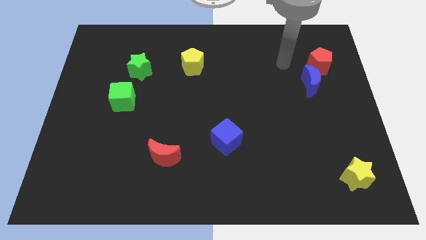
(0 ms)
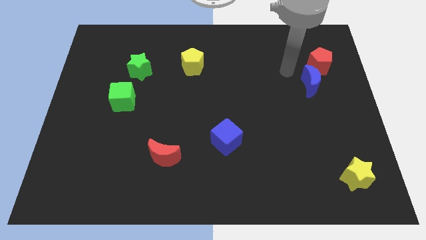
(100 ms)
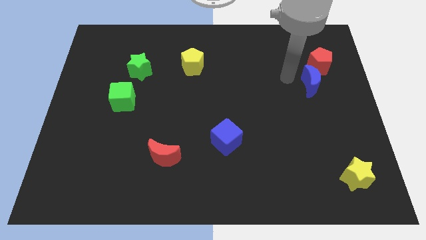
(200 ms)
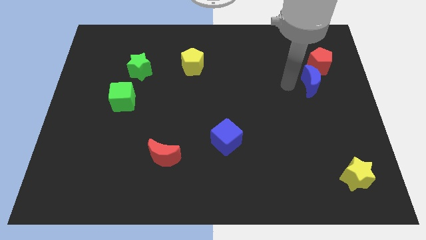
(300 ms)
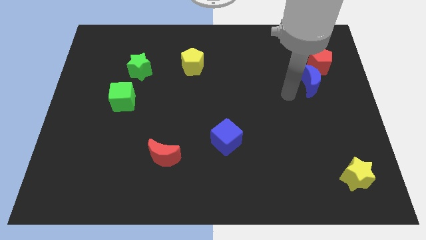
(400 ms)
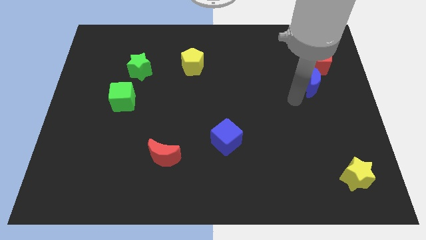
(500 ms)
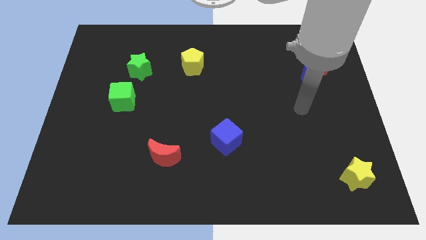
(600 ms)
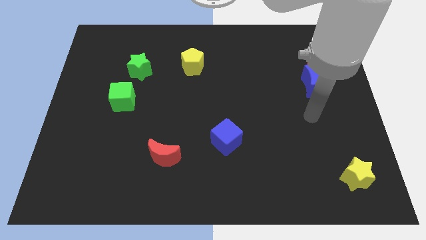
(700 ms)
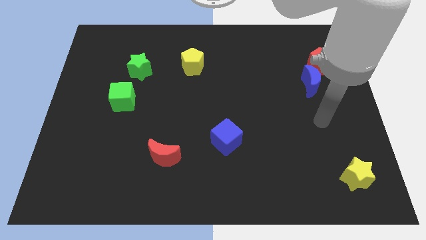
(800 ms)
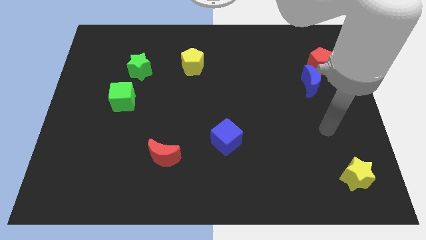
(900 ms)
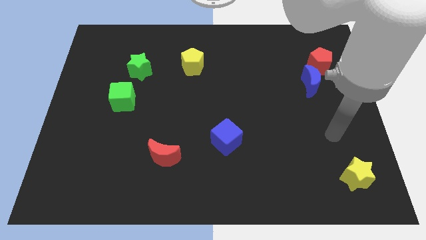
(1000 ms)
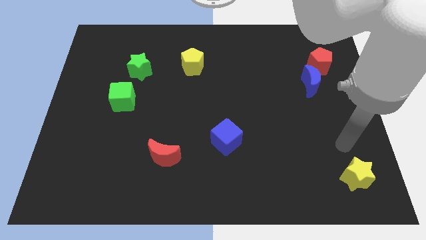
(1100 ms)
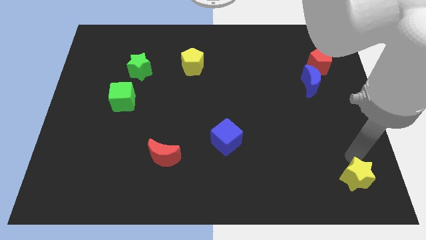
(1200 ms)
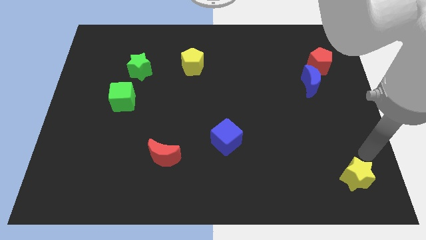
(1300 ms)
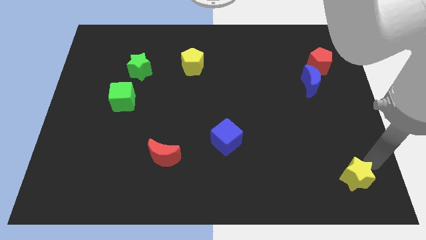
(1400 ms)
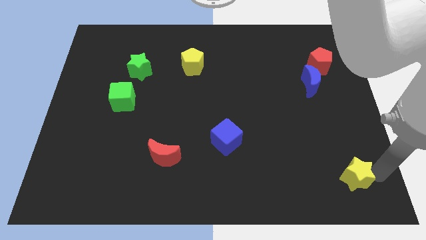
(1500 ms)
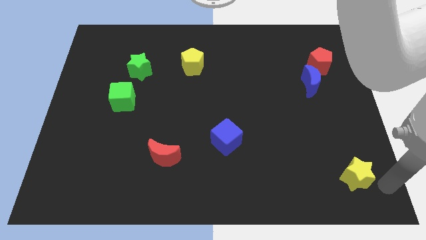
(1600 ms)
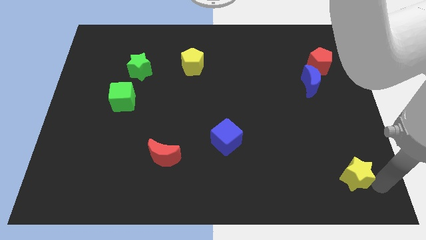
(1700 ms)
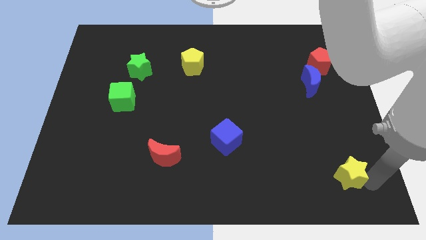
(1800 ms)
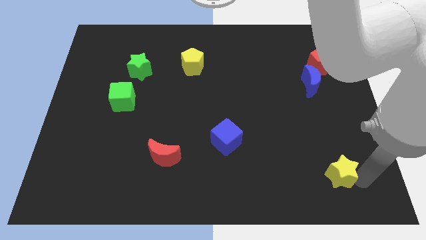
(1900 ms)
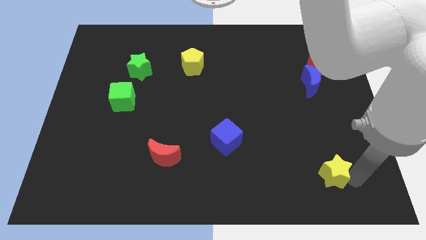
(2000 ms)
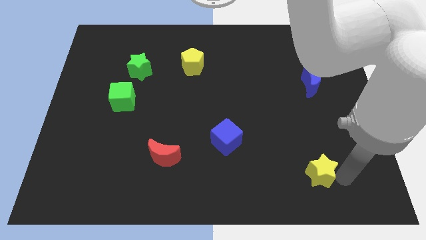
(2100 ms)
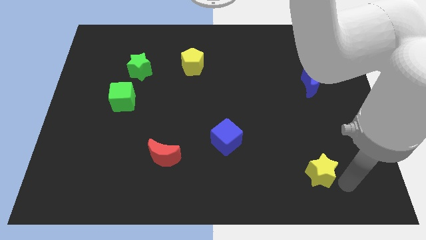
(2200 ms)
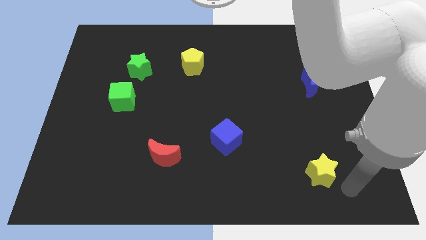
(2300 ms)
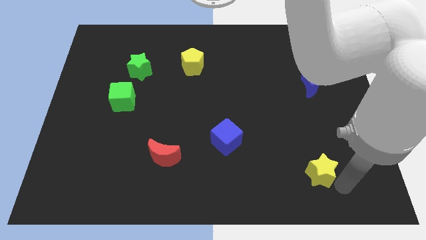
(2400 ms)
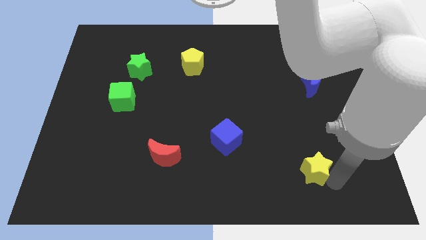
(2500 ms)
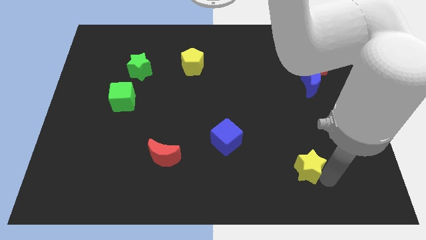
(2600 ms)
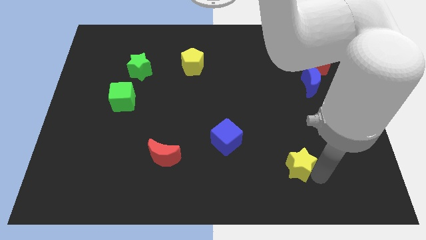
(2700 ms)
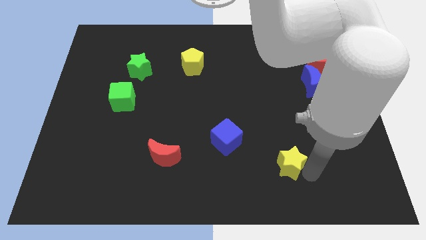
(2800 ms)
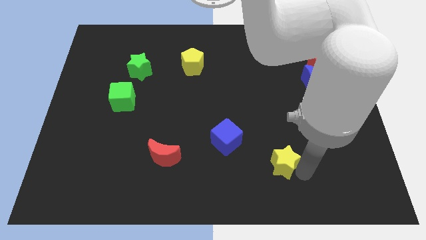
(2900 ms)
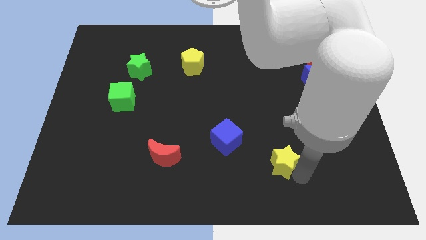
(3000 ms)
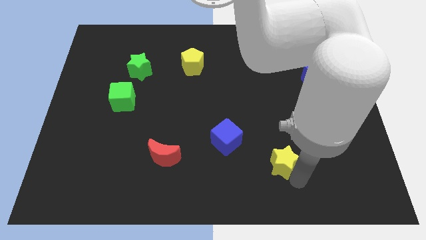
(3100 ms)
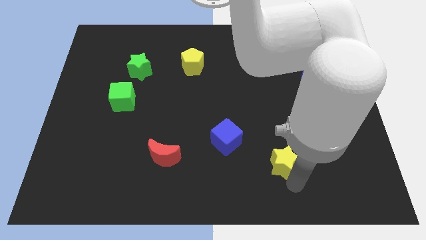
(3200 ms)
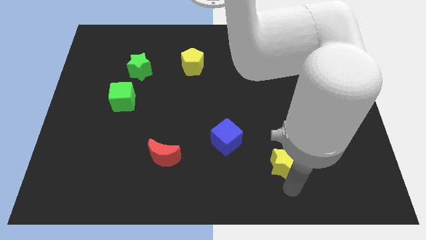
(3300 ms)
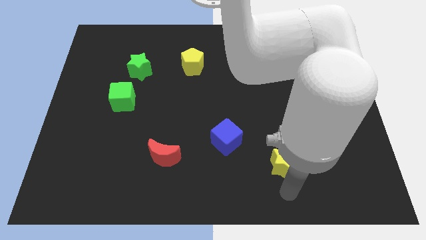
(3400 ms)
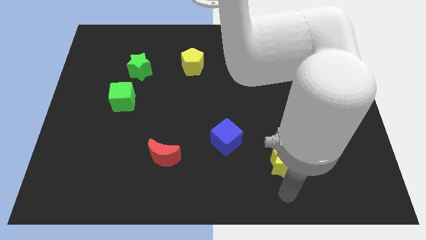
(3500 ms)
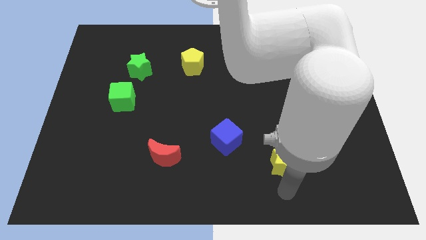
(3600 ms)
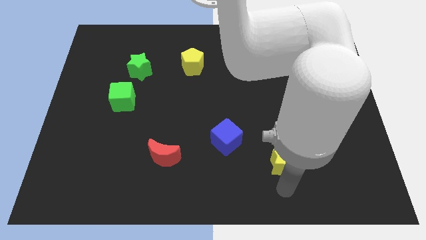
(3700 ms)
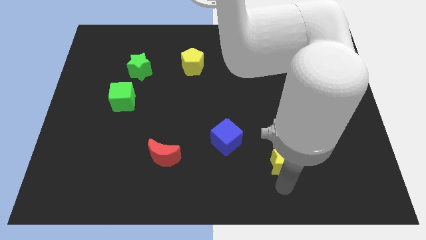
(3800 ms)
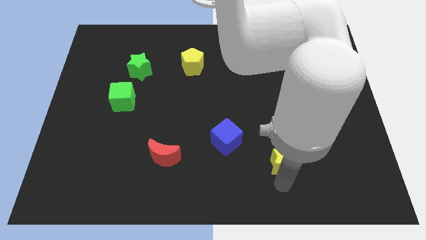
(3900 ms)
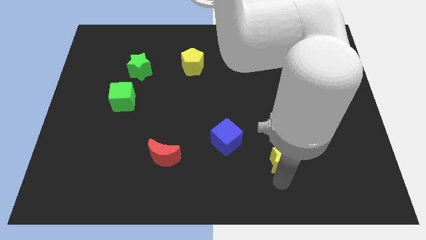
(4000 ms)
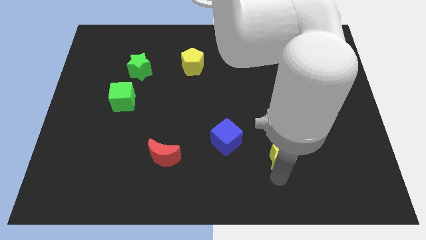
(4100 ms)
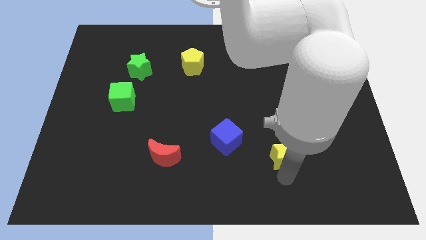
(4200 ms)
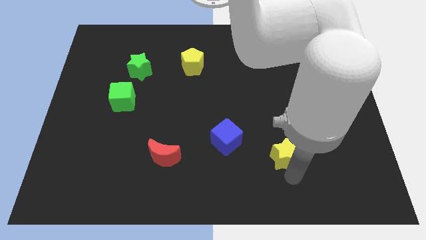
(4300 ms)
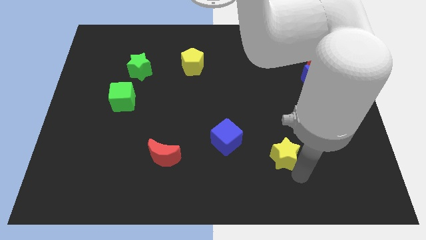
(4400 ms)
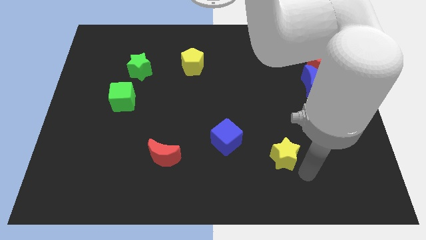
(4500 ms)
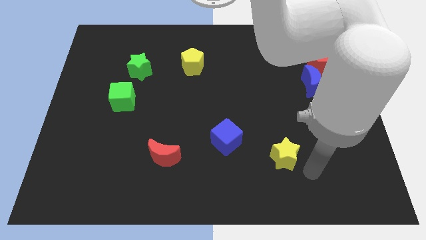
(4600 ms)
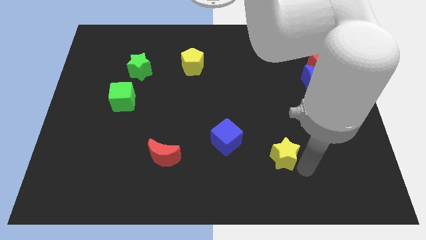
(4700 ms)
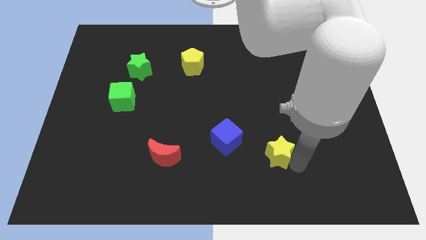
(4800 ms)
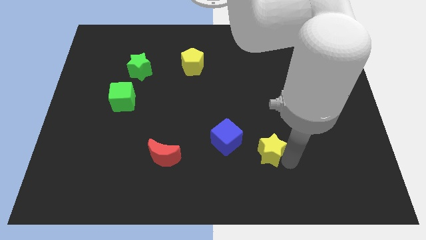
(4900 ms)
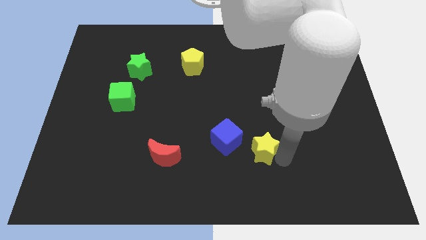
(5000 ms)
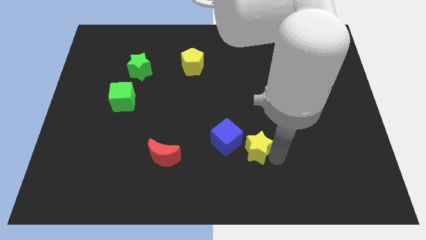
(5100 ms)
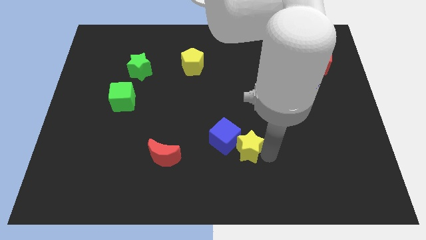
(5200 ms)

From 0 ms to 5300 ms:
move the yellow star close to the blue cube

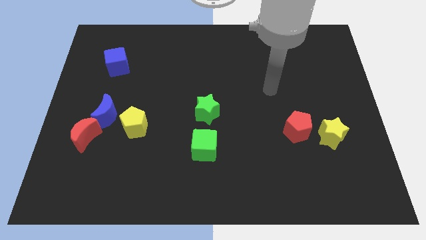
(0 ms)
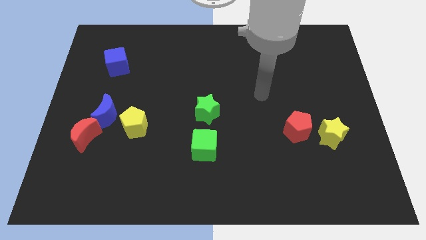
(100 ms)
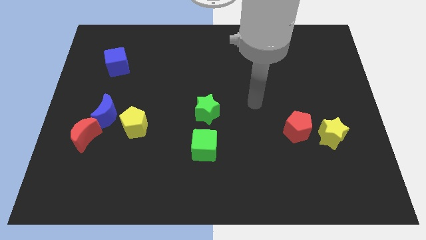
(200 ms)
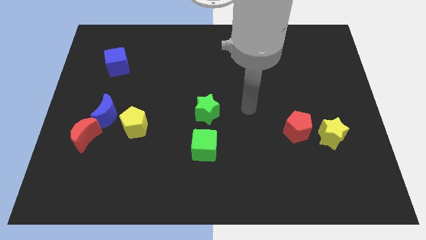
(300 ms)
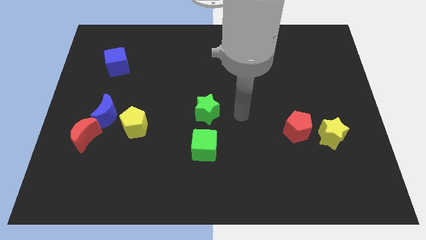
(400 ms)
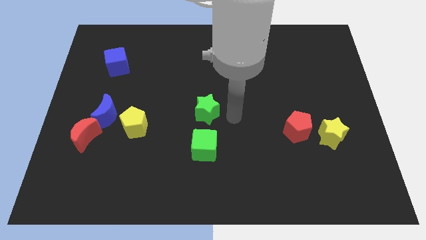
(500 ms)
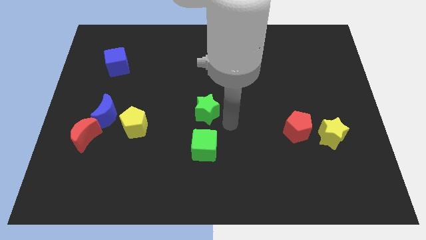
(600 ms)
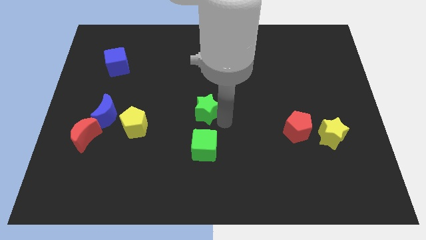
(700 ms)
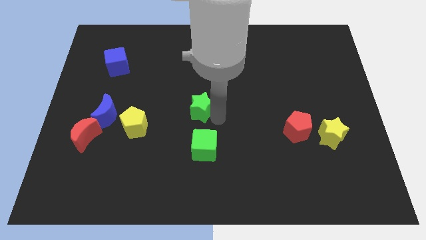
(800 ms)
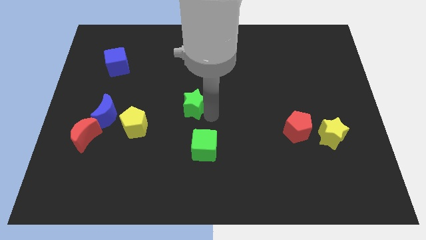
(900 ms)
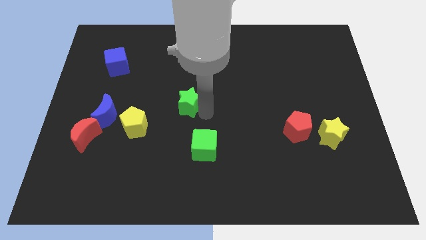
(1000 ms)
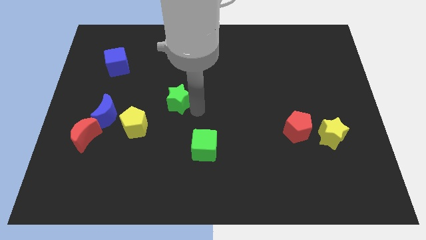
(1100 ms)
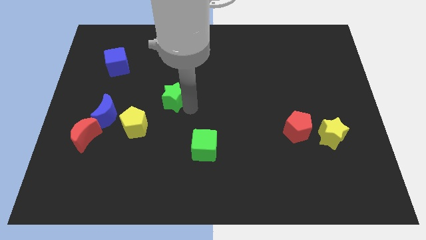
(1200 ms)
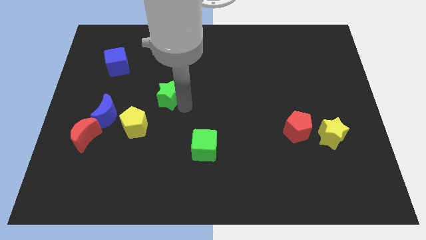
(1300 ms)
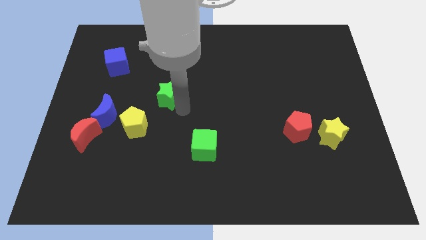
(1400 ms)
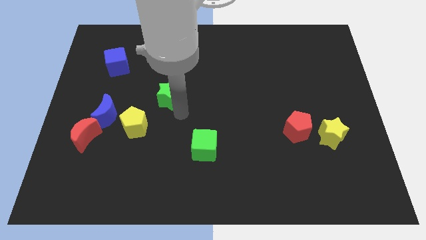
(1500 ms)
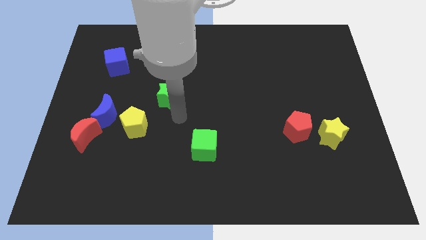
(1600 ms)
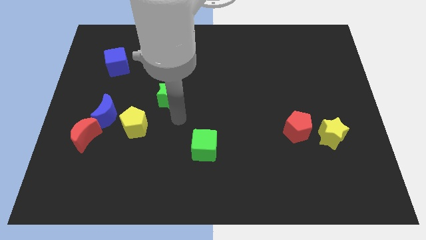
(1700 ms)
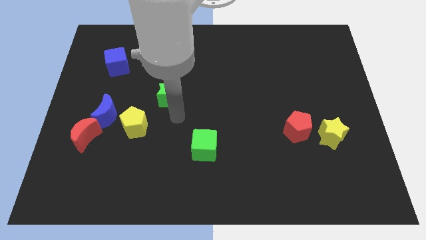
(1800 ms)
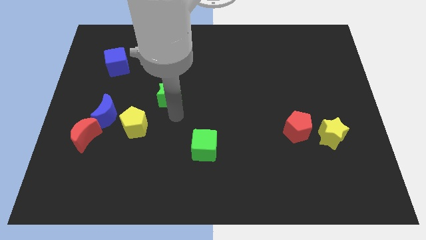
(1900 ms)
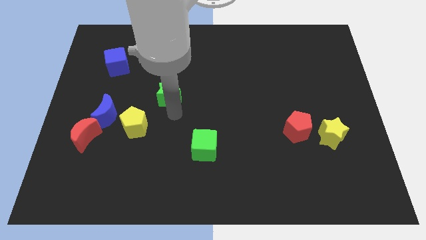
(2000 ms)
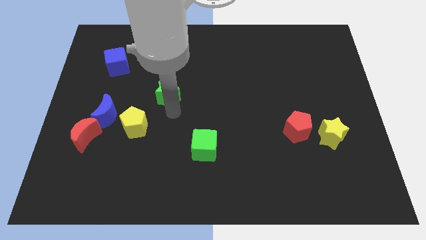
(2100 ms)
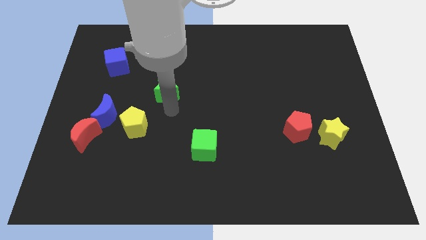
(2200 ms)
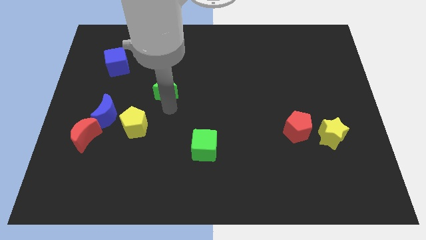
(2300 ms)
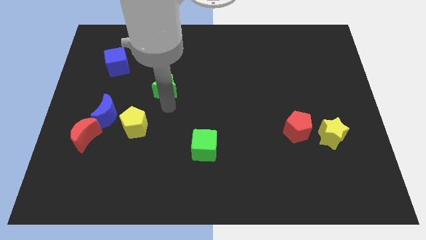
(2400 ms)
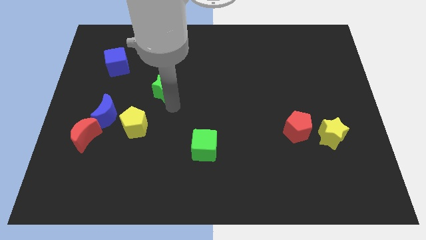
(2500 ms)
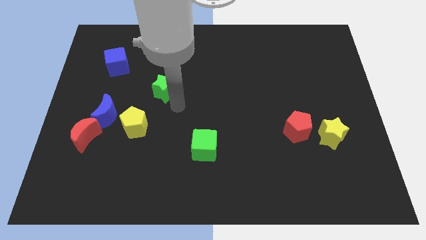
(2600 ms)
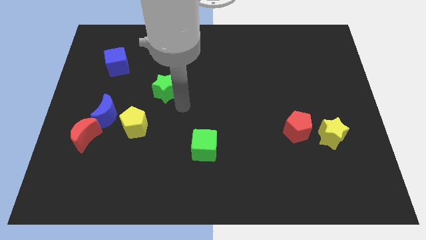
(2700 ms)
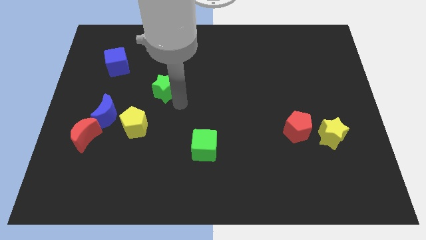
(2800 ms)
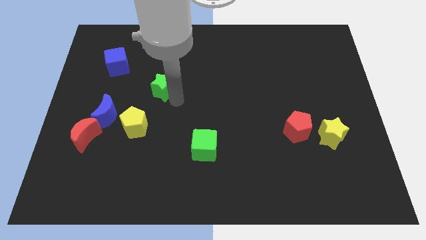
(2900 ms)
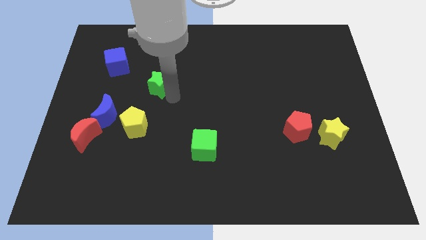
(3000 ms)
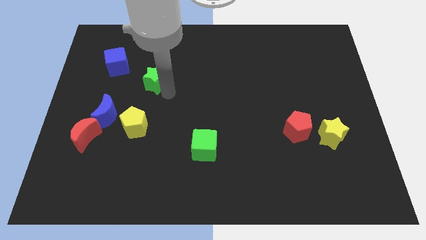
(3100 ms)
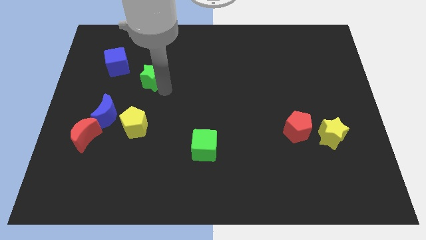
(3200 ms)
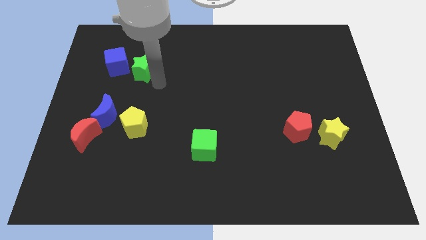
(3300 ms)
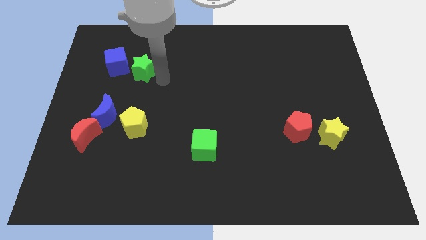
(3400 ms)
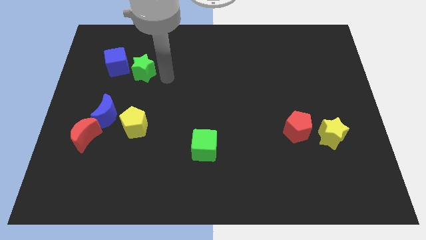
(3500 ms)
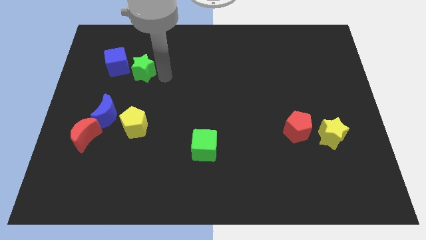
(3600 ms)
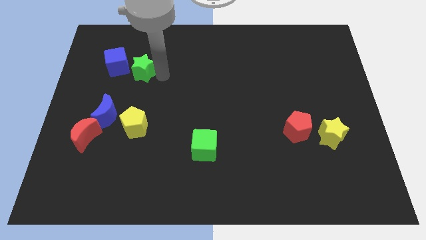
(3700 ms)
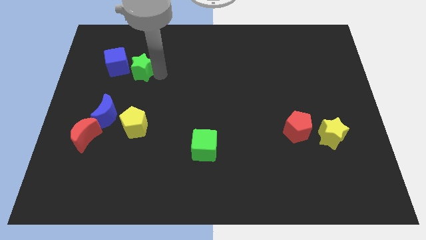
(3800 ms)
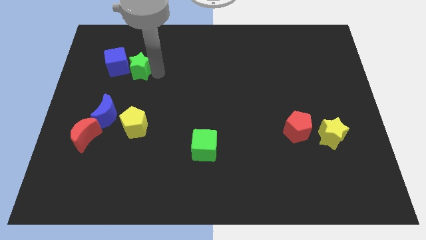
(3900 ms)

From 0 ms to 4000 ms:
push the green star close to the blue cube
